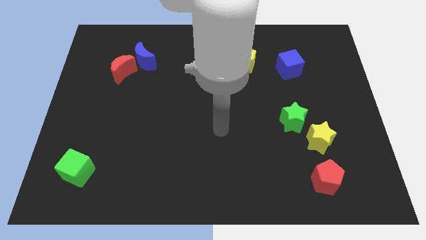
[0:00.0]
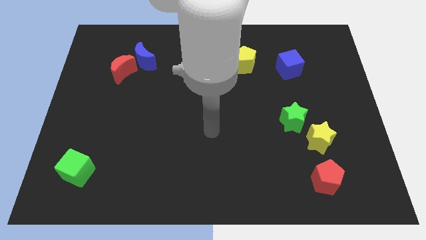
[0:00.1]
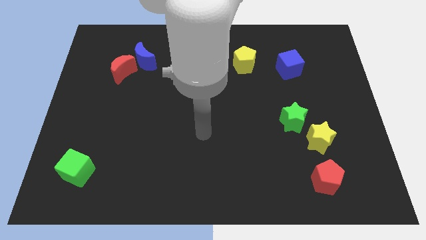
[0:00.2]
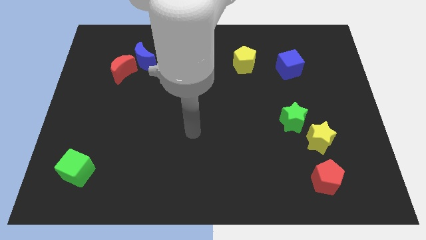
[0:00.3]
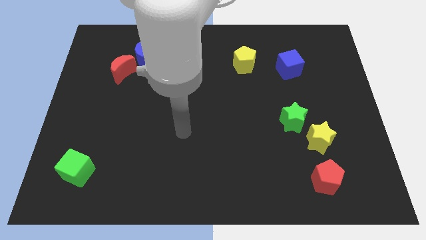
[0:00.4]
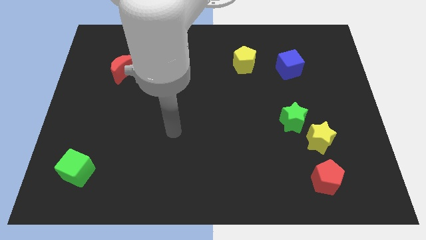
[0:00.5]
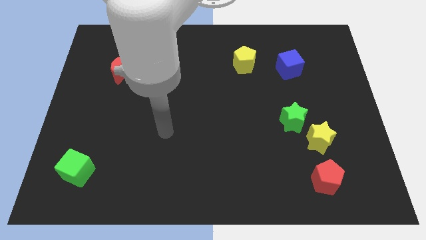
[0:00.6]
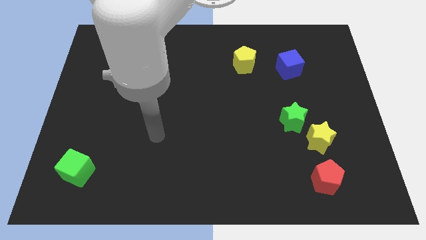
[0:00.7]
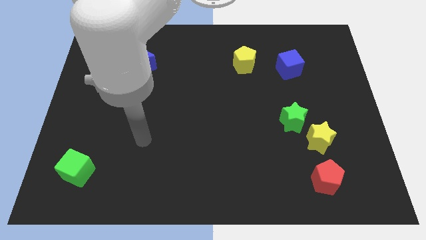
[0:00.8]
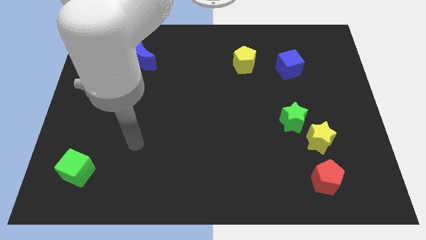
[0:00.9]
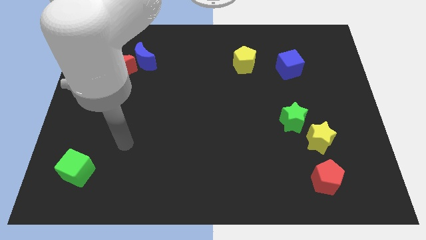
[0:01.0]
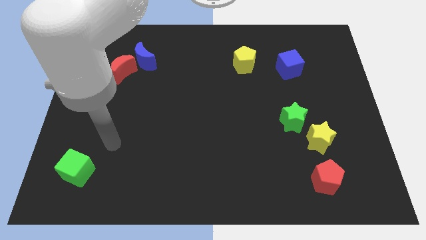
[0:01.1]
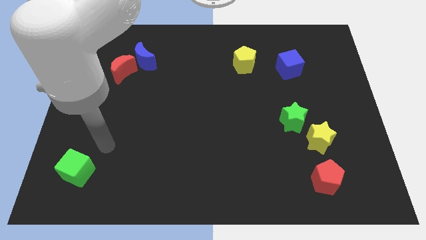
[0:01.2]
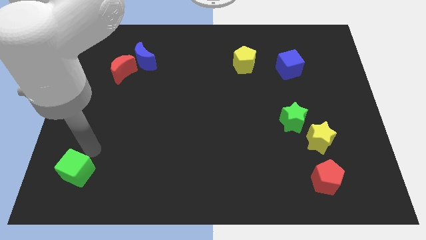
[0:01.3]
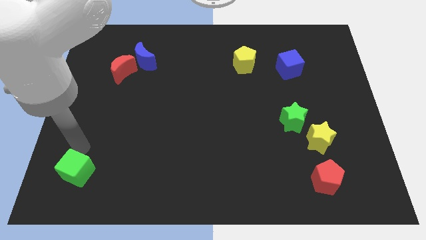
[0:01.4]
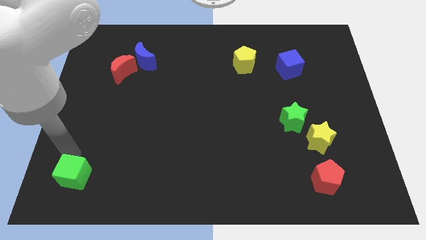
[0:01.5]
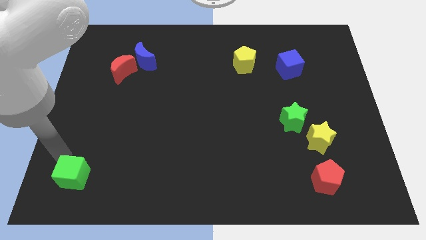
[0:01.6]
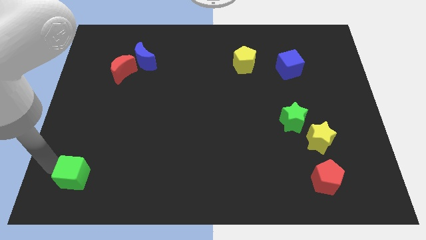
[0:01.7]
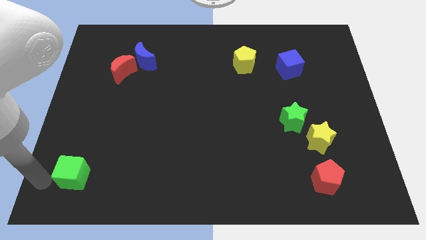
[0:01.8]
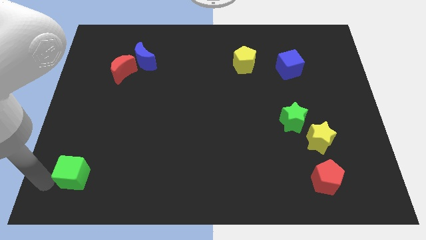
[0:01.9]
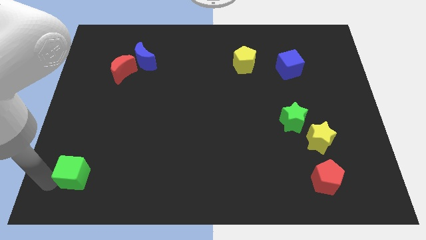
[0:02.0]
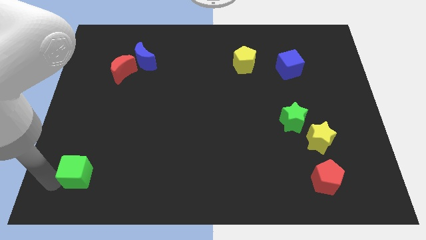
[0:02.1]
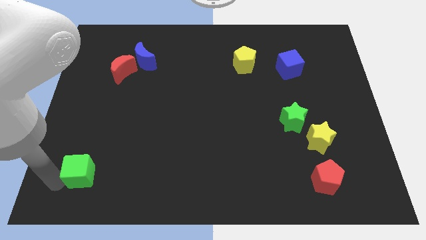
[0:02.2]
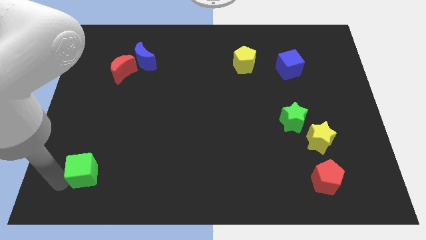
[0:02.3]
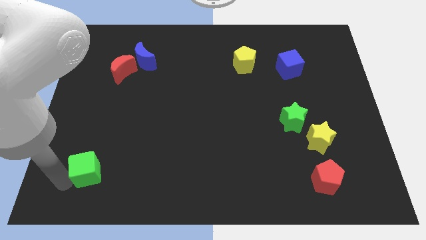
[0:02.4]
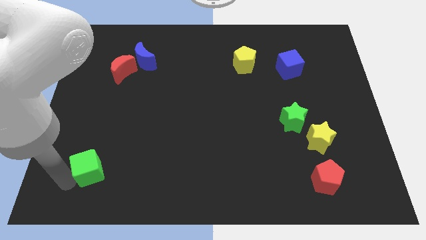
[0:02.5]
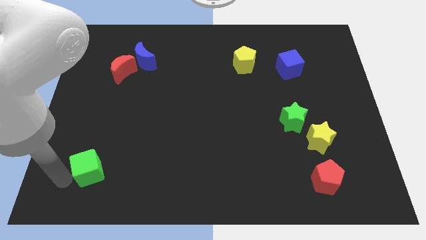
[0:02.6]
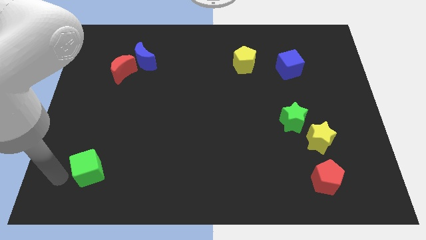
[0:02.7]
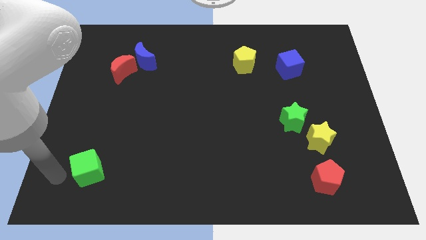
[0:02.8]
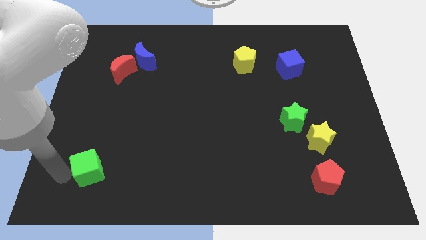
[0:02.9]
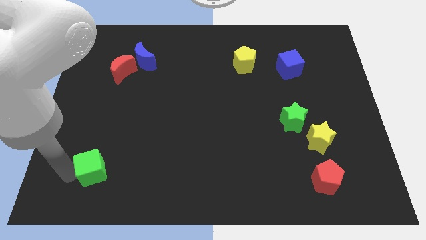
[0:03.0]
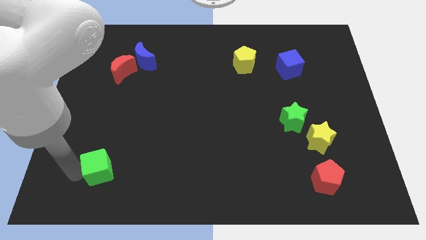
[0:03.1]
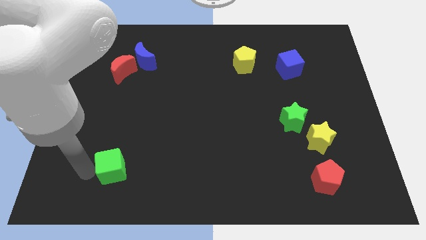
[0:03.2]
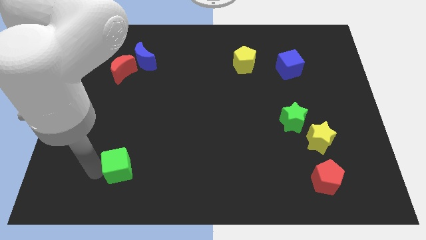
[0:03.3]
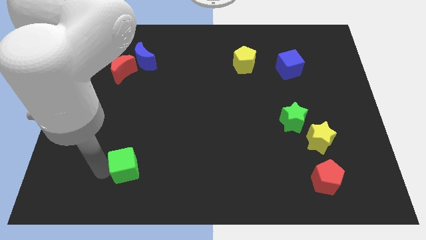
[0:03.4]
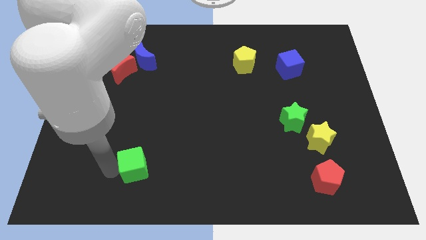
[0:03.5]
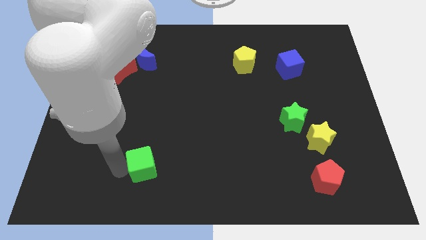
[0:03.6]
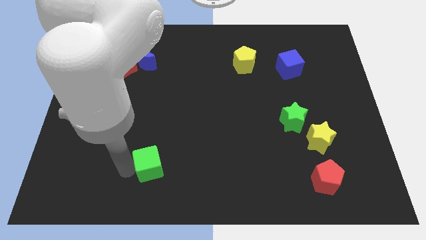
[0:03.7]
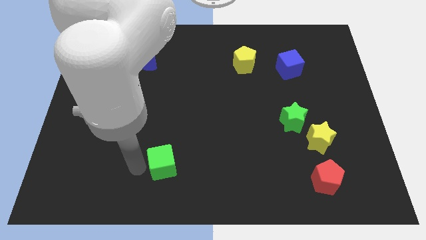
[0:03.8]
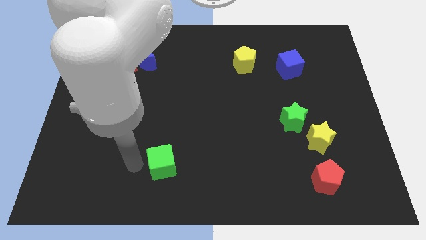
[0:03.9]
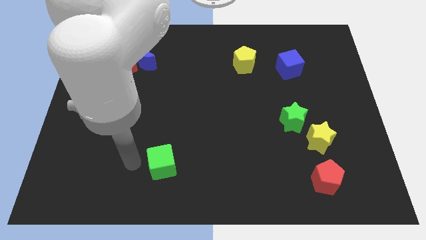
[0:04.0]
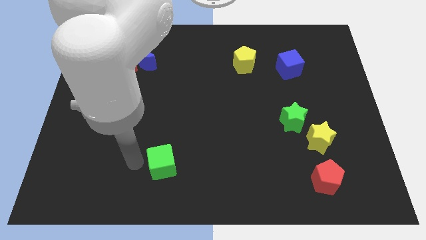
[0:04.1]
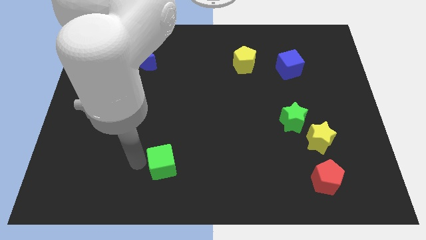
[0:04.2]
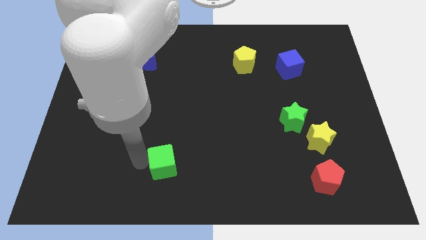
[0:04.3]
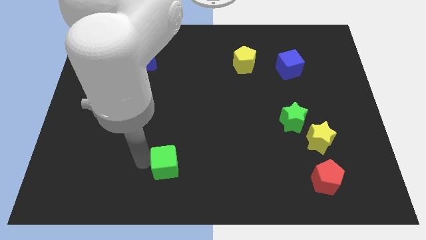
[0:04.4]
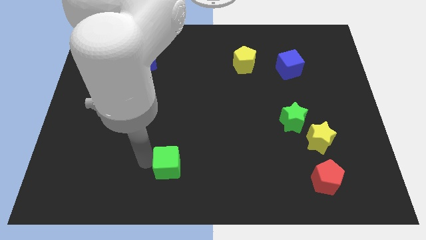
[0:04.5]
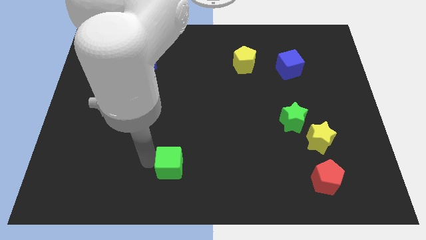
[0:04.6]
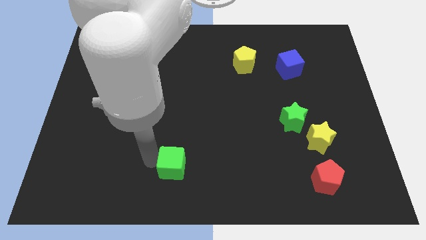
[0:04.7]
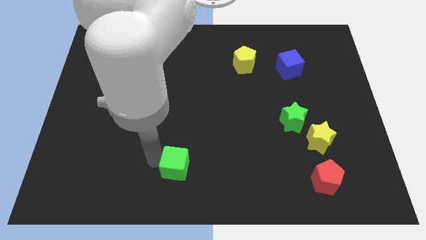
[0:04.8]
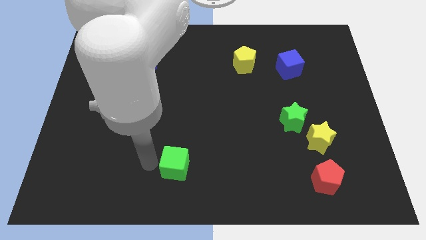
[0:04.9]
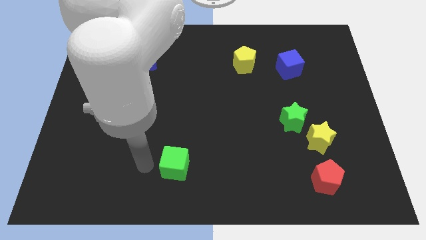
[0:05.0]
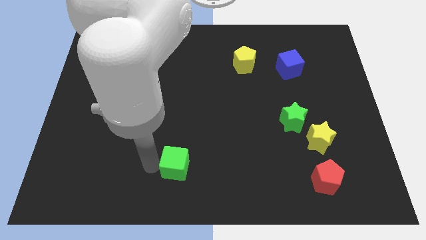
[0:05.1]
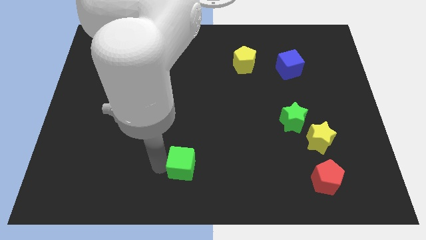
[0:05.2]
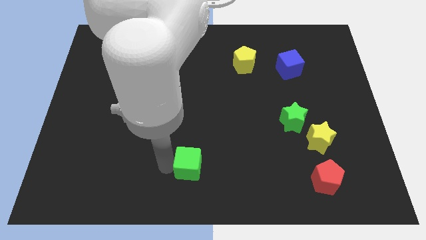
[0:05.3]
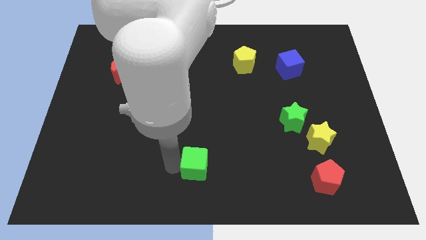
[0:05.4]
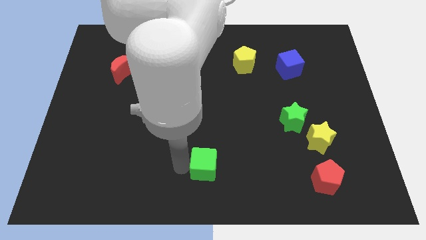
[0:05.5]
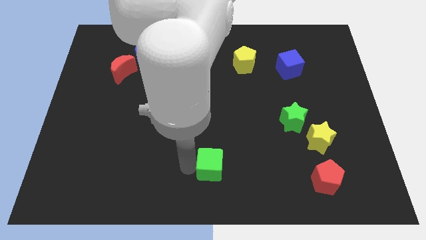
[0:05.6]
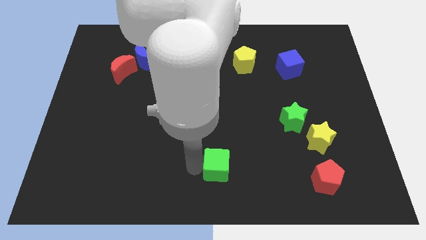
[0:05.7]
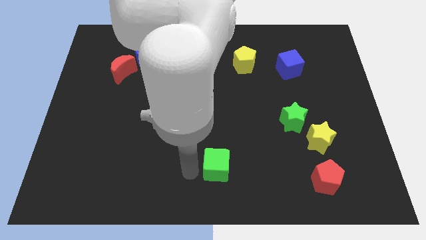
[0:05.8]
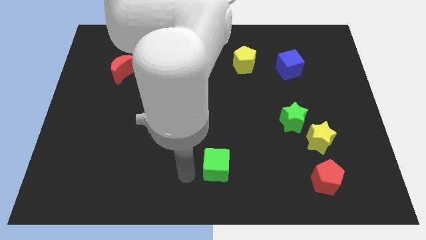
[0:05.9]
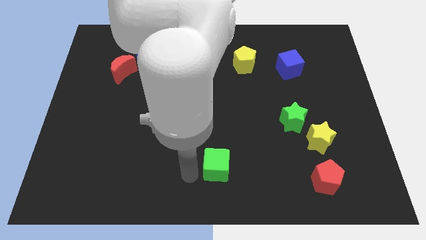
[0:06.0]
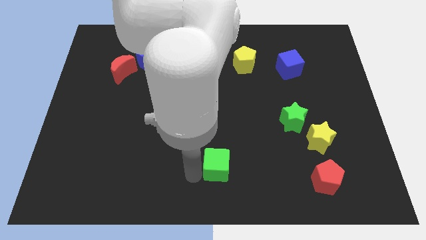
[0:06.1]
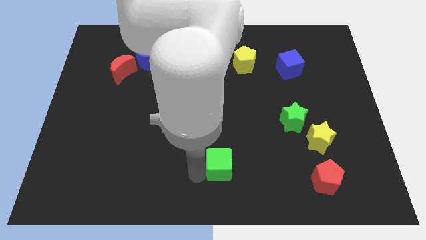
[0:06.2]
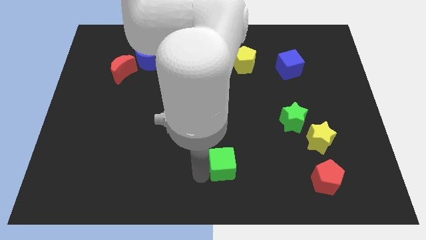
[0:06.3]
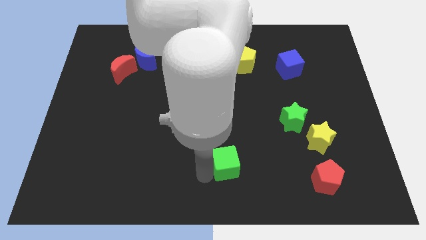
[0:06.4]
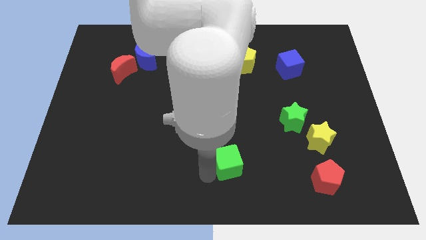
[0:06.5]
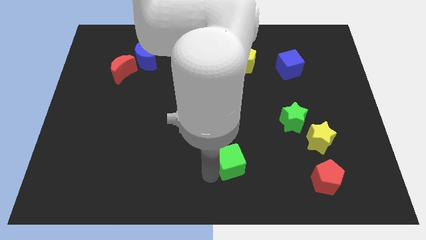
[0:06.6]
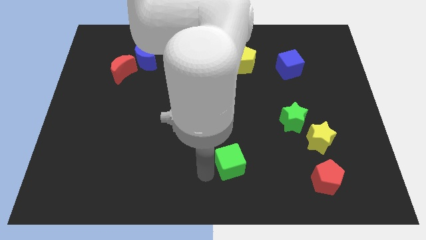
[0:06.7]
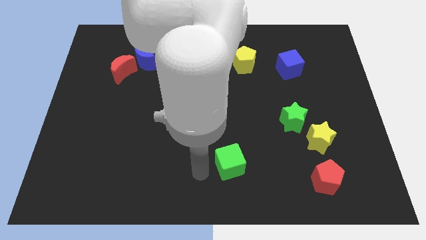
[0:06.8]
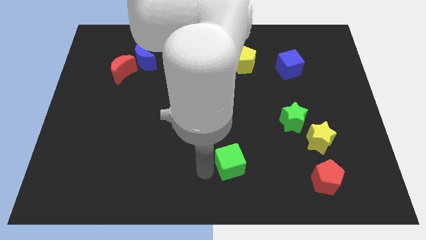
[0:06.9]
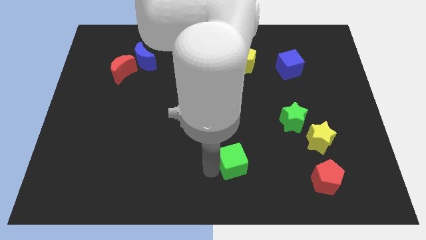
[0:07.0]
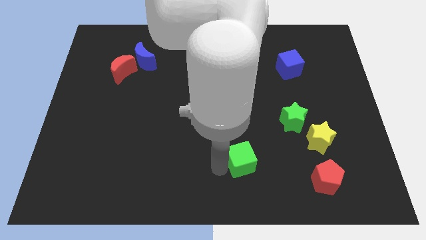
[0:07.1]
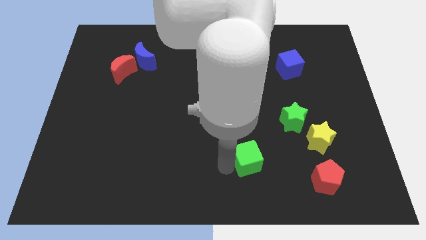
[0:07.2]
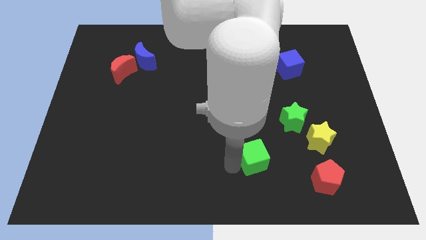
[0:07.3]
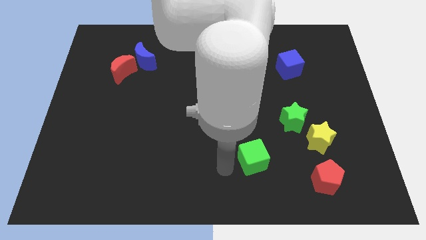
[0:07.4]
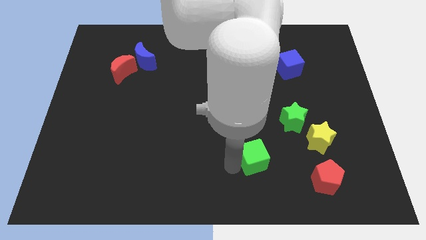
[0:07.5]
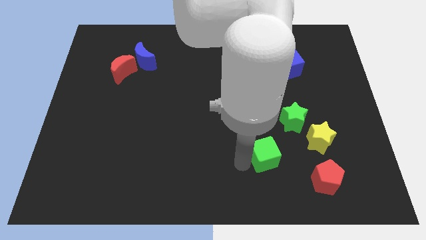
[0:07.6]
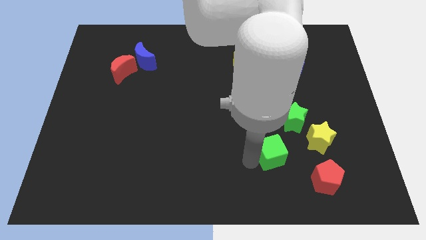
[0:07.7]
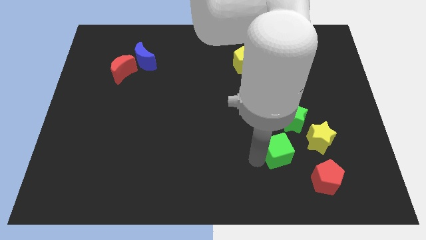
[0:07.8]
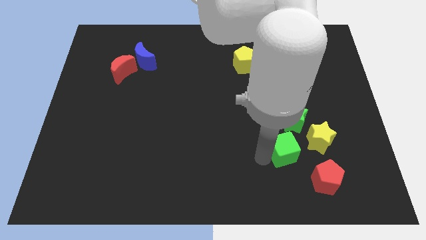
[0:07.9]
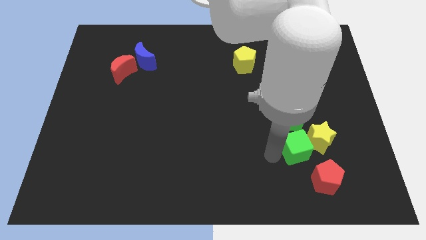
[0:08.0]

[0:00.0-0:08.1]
put the green cube close to the yellow star
